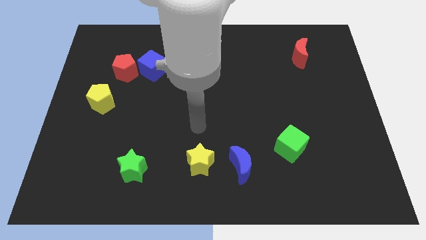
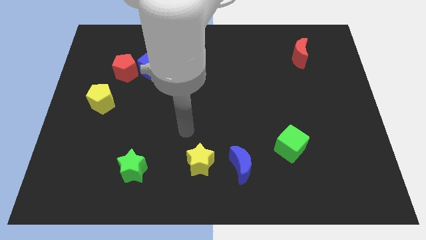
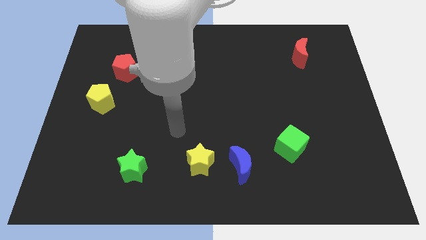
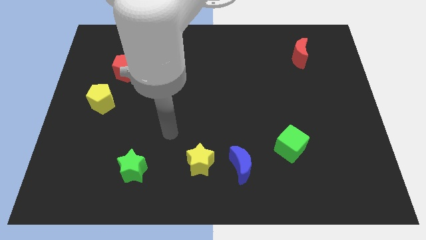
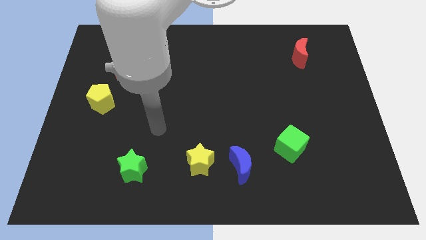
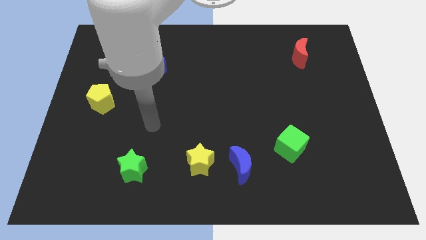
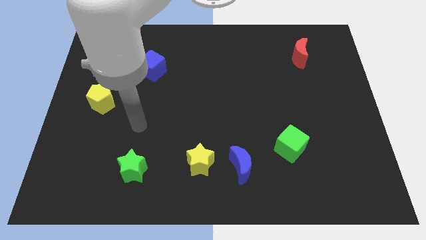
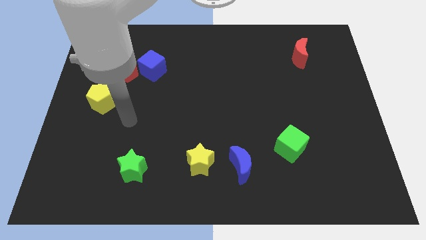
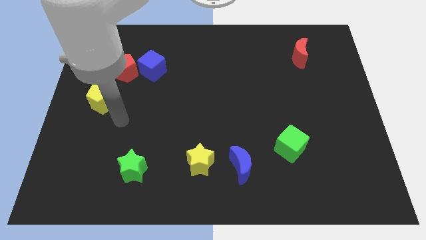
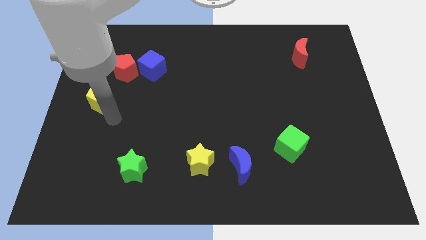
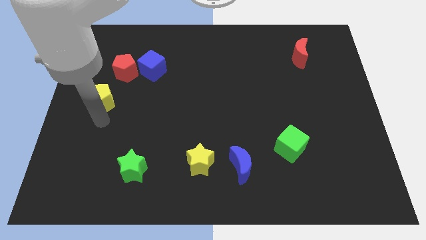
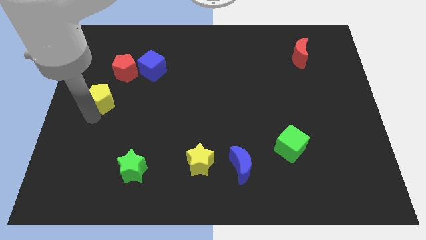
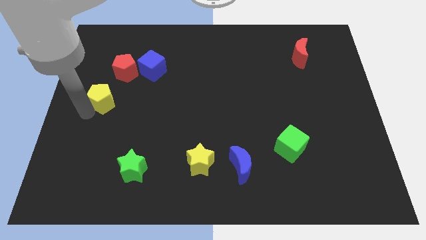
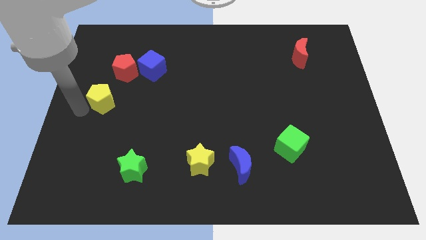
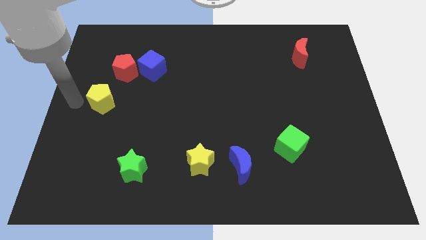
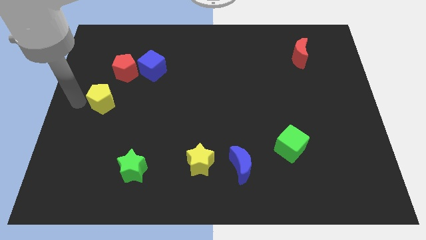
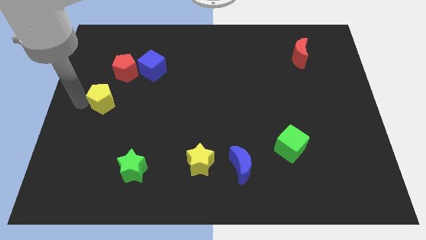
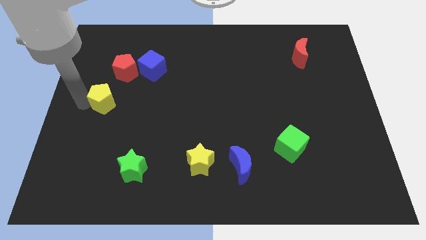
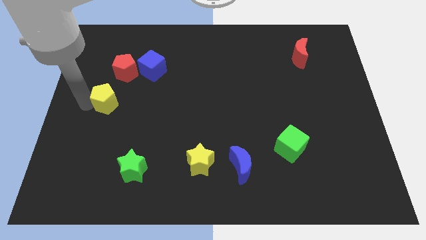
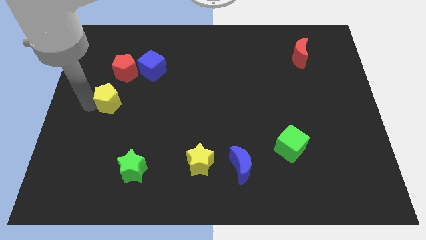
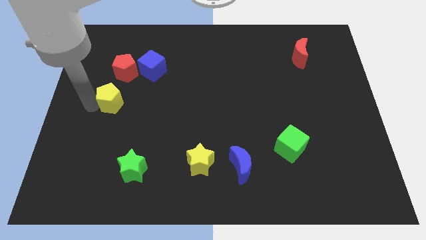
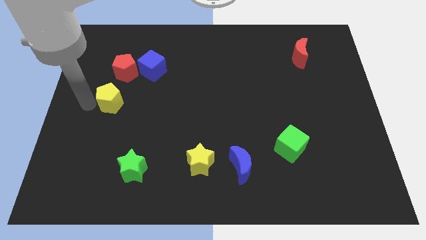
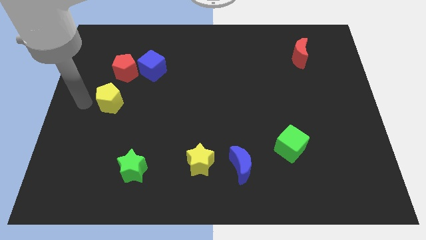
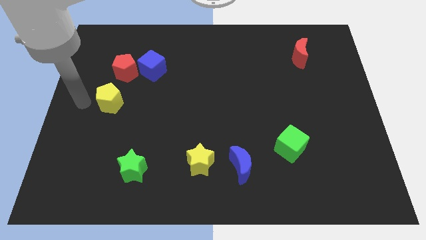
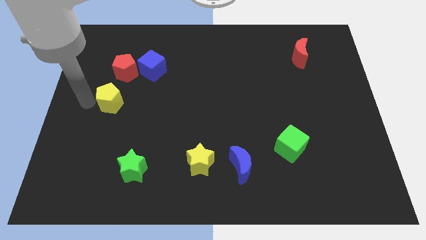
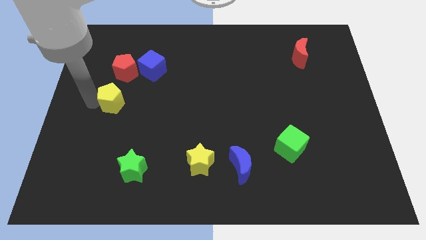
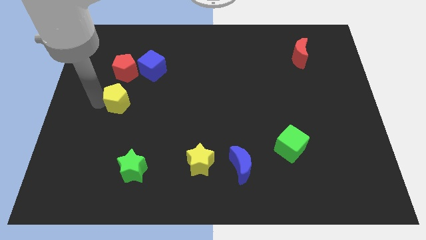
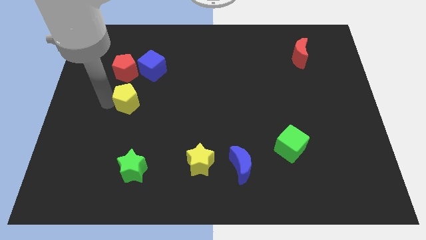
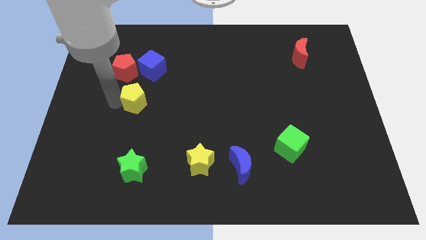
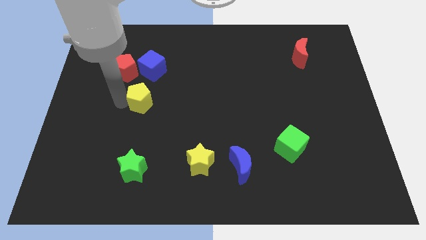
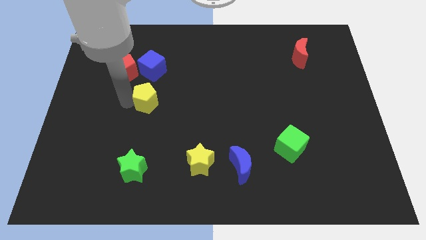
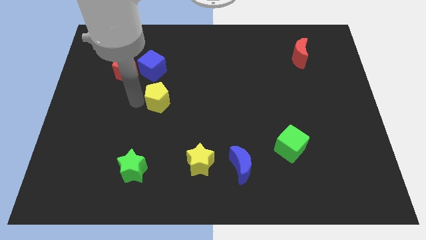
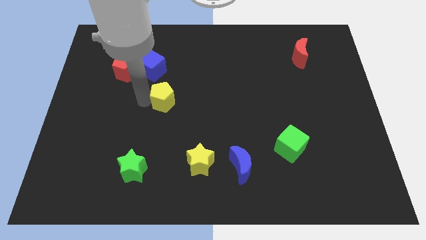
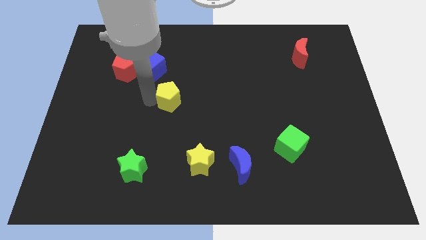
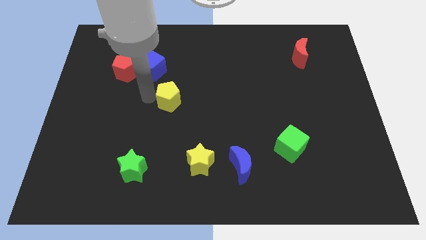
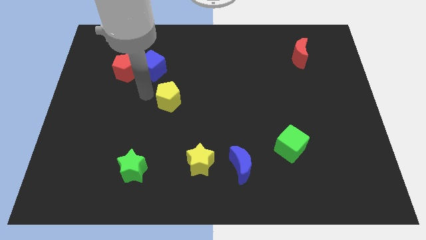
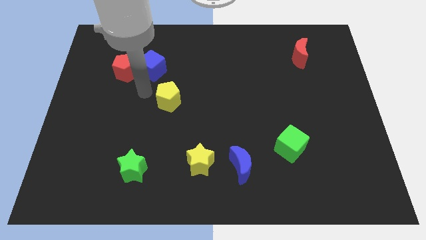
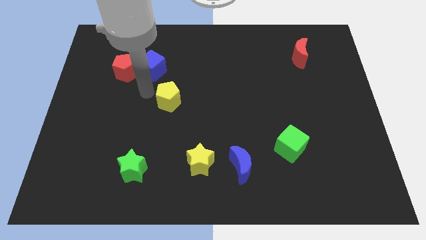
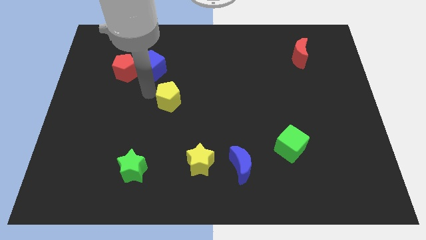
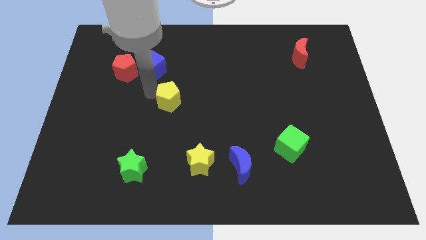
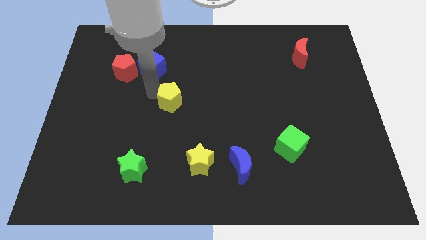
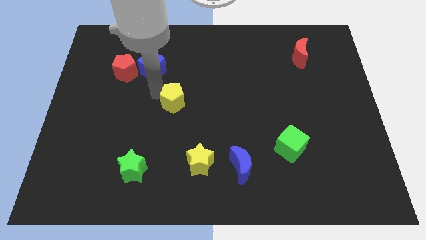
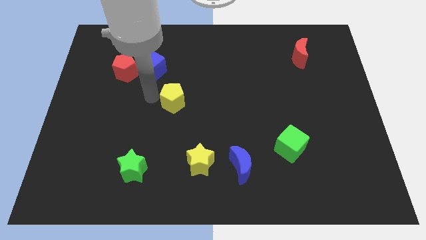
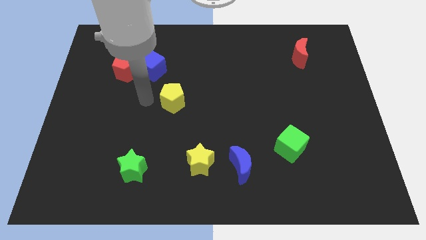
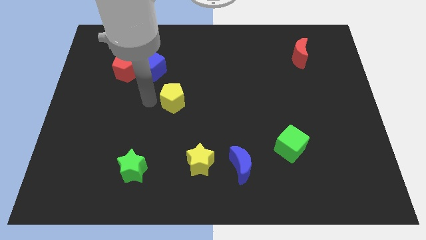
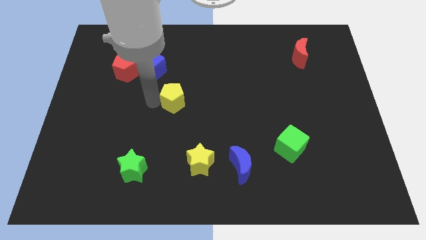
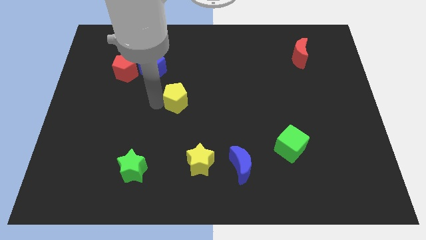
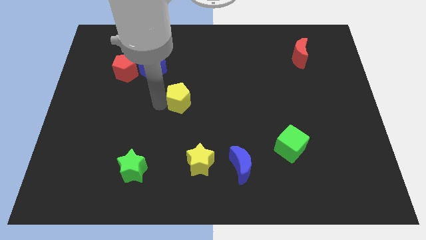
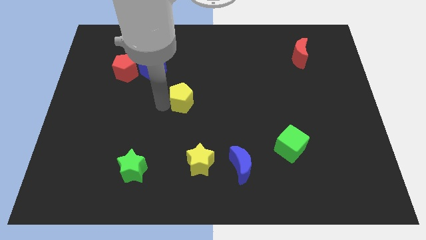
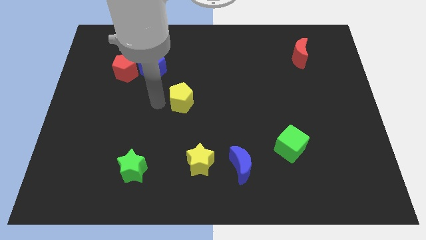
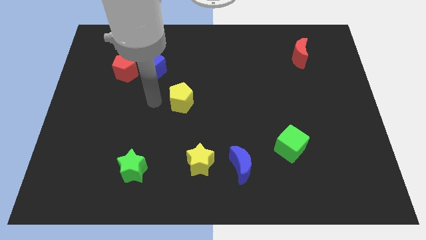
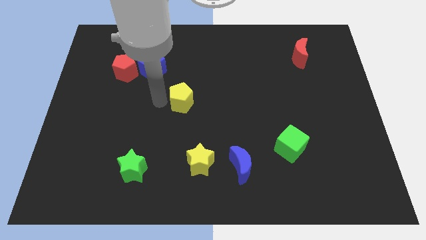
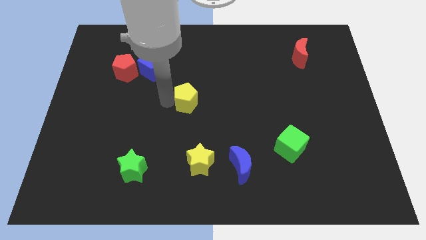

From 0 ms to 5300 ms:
push the yellow pentagon right

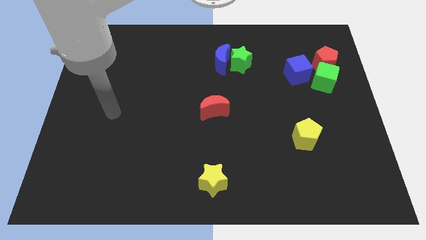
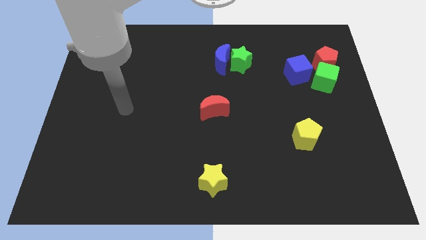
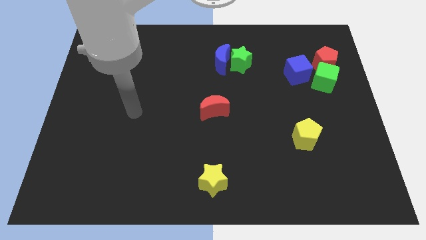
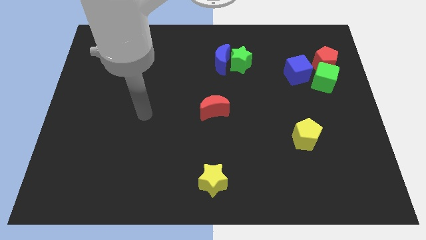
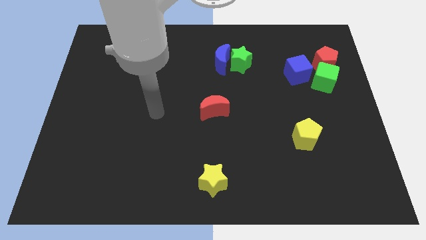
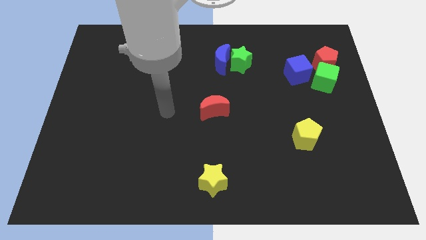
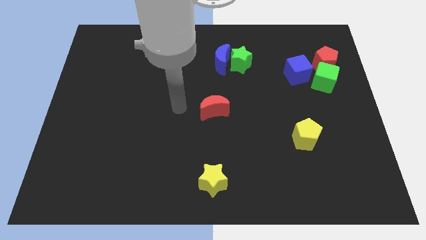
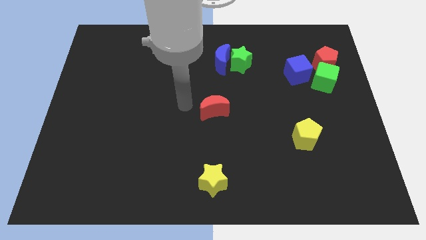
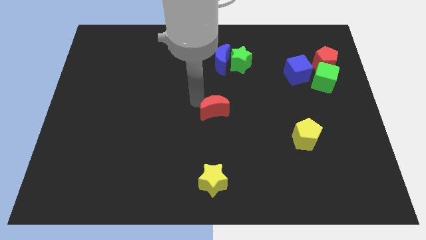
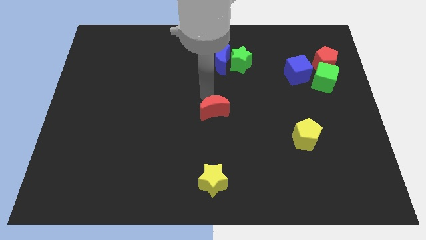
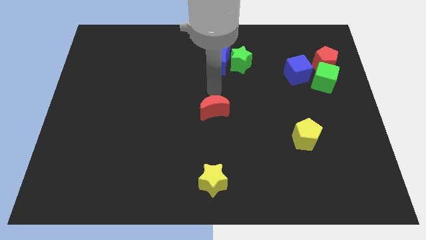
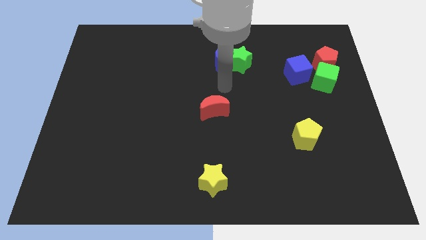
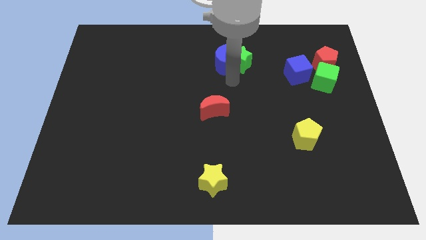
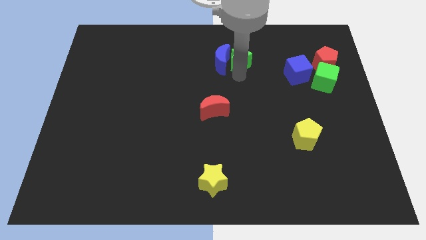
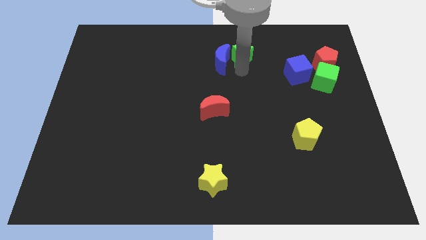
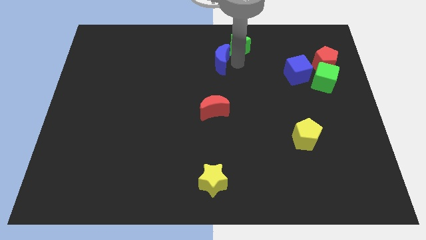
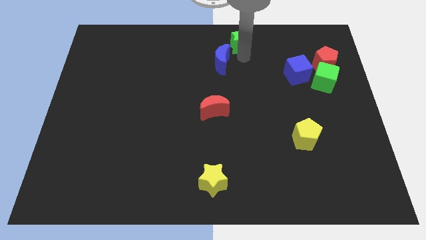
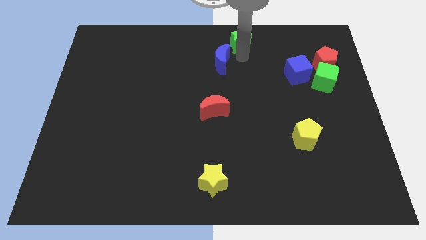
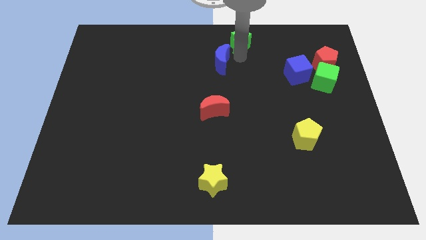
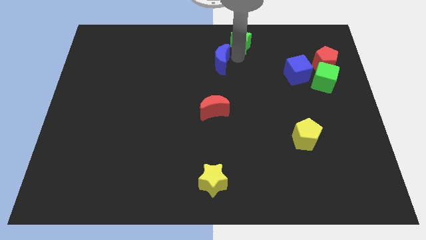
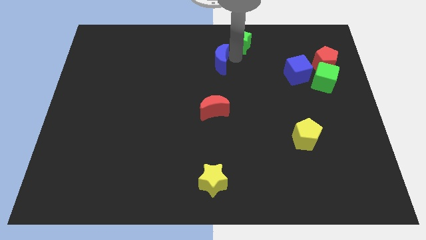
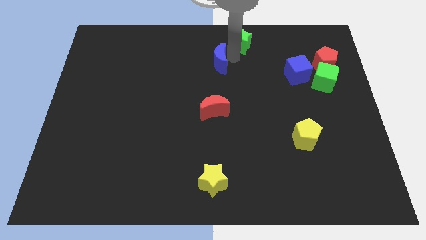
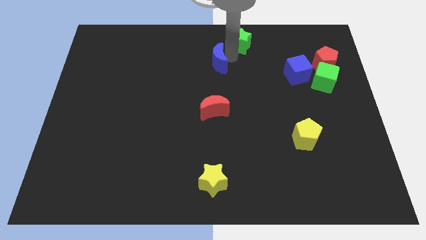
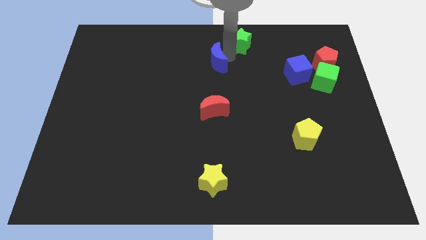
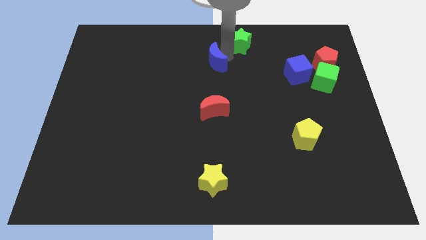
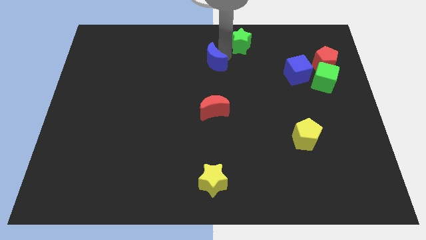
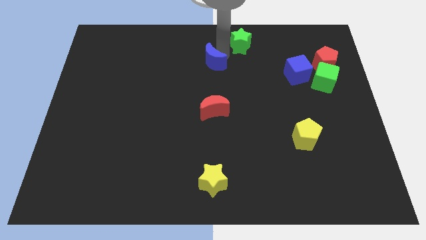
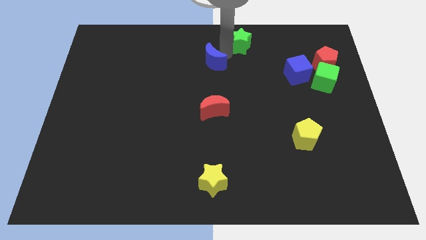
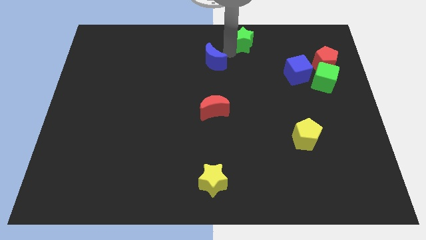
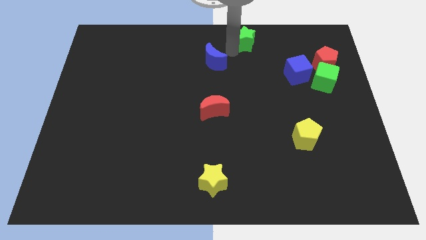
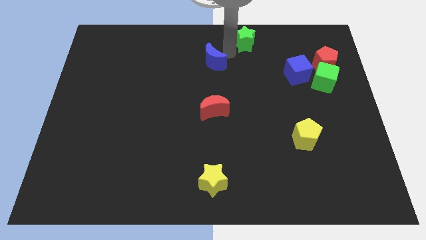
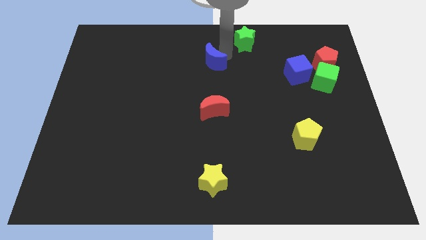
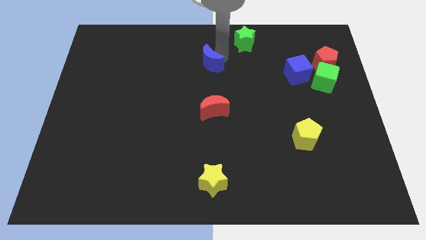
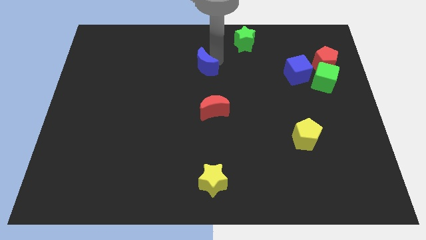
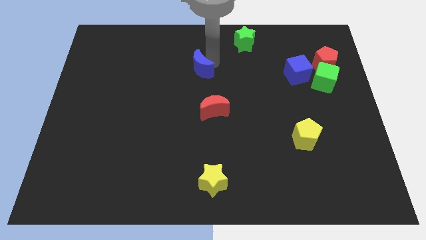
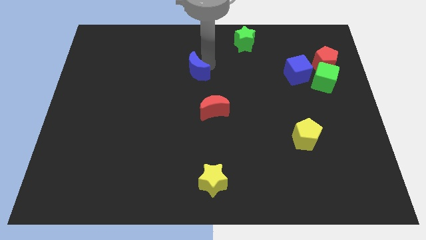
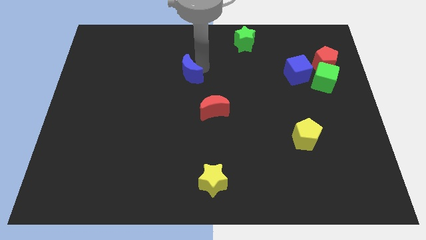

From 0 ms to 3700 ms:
push the blue moon somewhat down and then to the left
